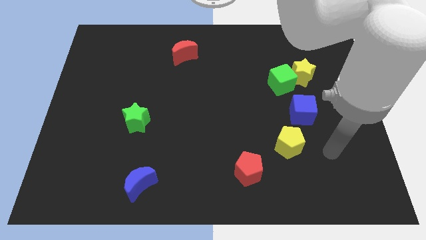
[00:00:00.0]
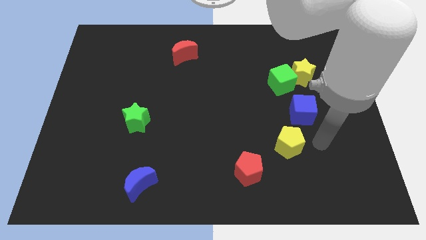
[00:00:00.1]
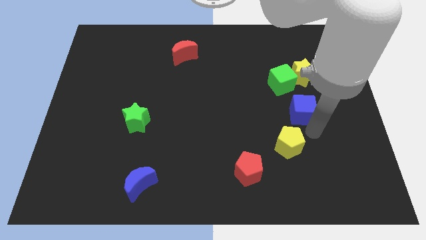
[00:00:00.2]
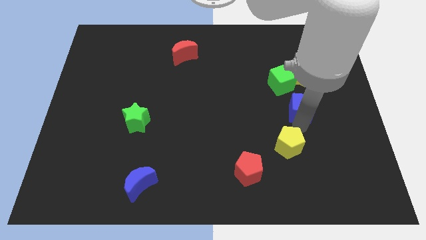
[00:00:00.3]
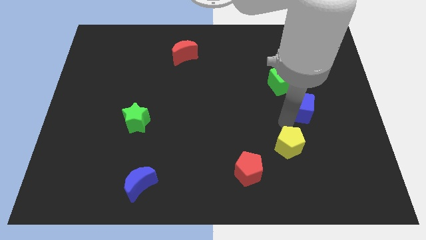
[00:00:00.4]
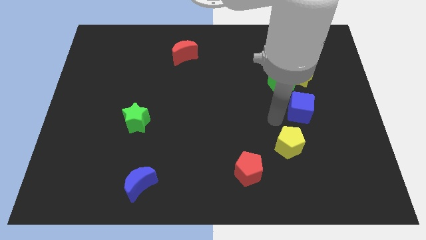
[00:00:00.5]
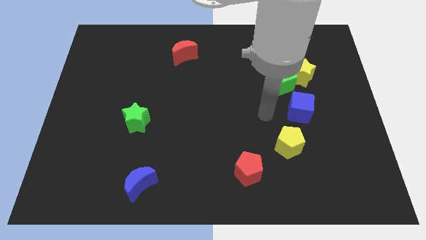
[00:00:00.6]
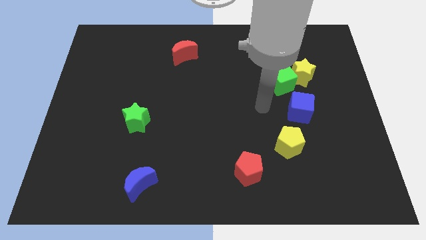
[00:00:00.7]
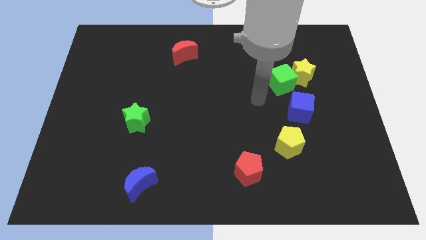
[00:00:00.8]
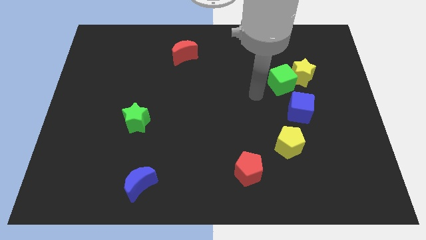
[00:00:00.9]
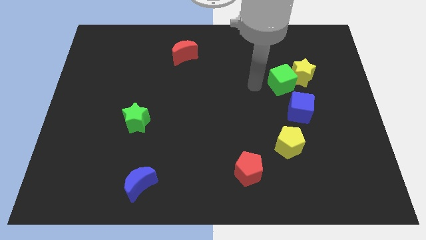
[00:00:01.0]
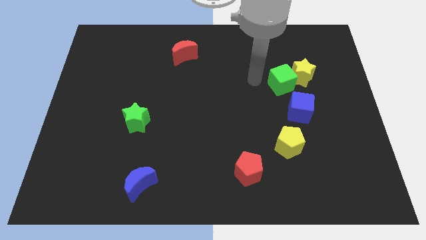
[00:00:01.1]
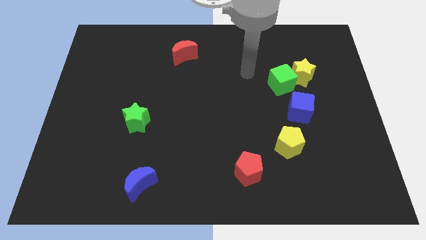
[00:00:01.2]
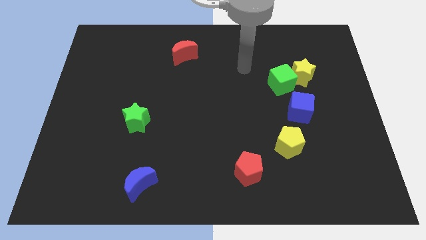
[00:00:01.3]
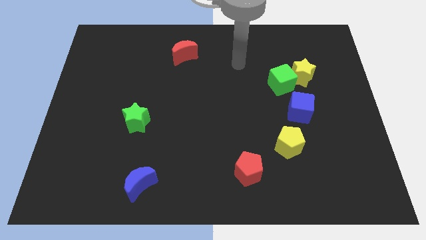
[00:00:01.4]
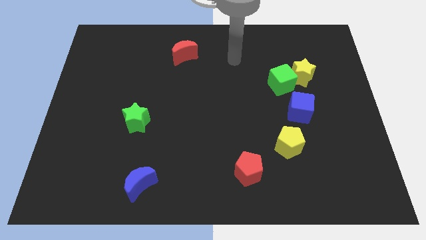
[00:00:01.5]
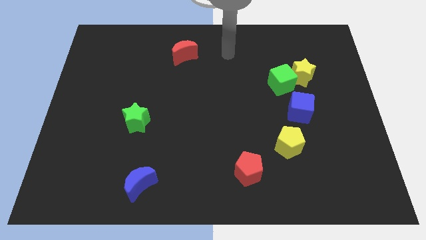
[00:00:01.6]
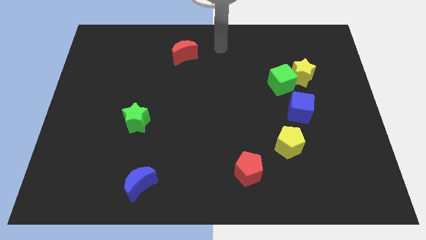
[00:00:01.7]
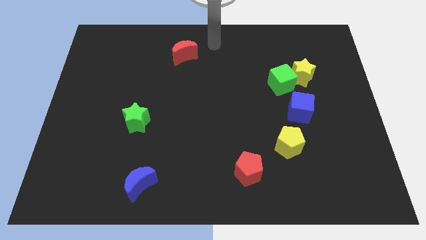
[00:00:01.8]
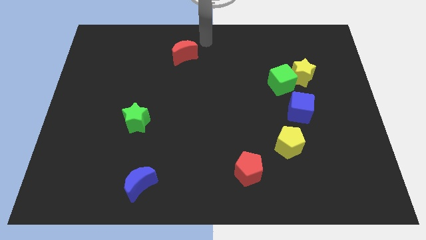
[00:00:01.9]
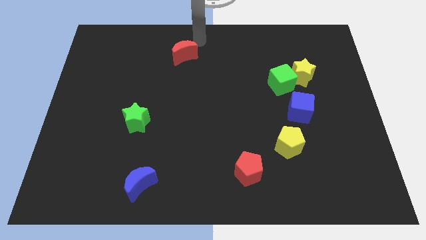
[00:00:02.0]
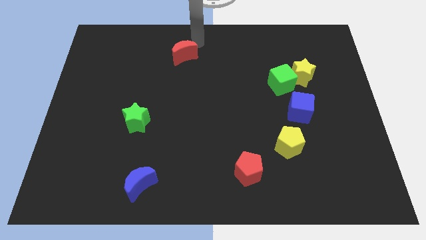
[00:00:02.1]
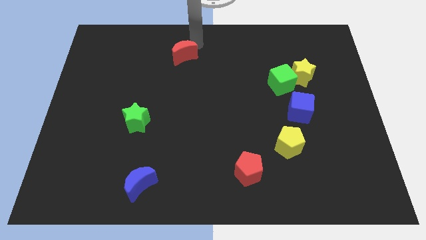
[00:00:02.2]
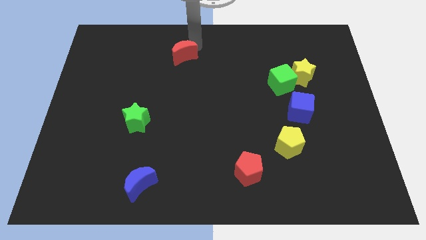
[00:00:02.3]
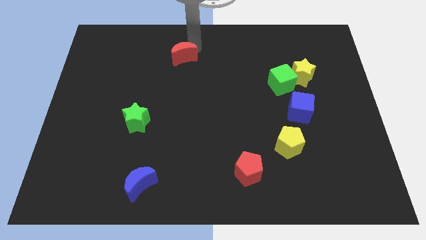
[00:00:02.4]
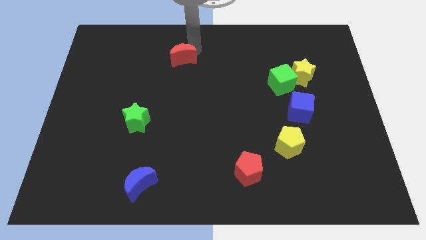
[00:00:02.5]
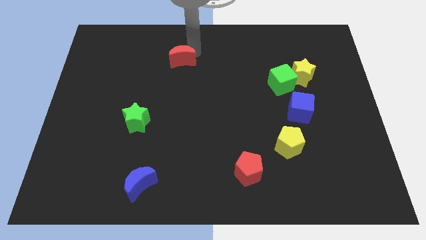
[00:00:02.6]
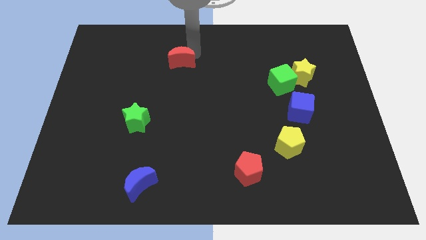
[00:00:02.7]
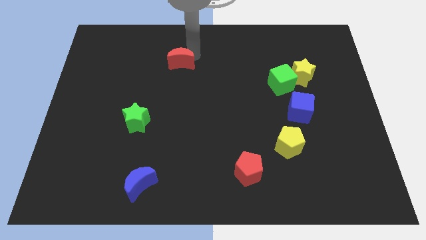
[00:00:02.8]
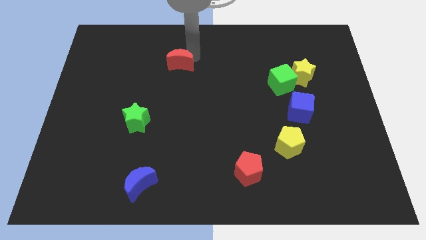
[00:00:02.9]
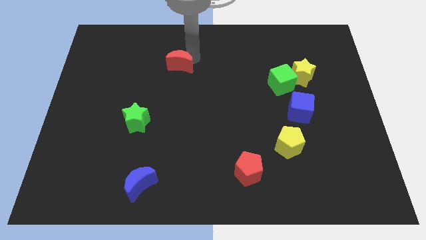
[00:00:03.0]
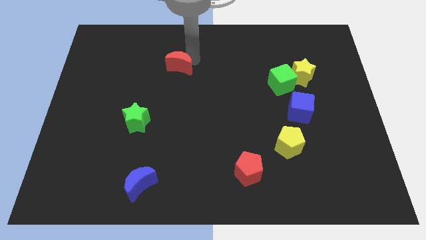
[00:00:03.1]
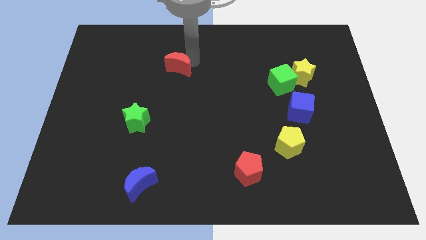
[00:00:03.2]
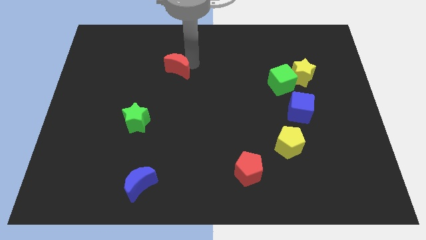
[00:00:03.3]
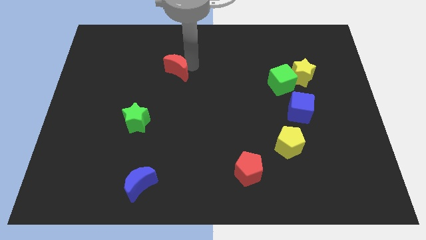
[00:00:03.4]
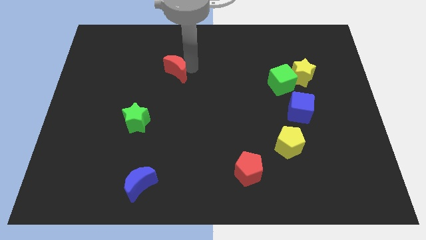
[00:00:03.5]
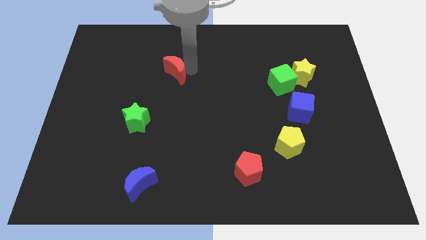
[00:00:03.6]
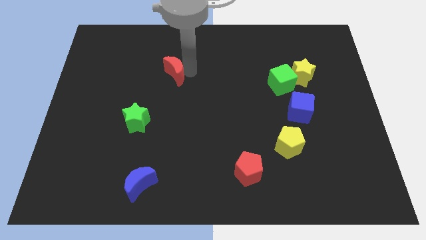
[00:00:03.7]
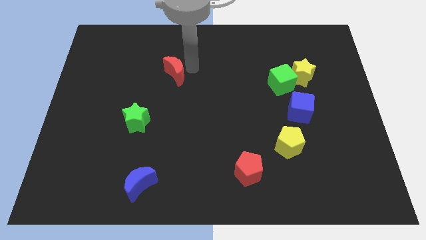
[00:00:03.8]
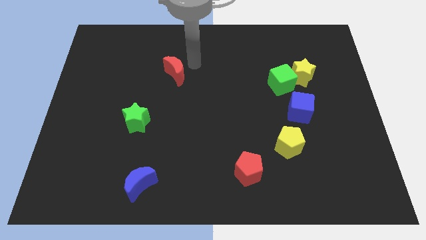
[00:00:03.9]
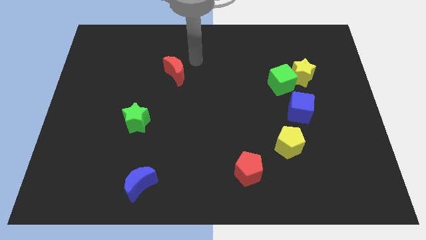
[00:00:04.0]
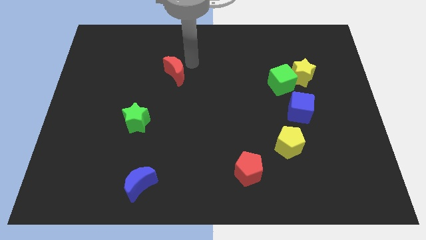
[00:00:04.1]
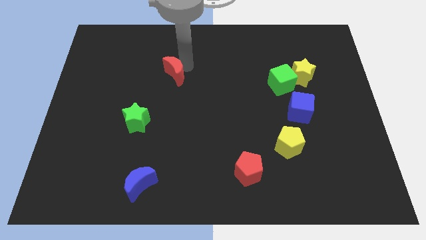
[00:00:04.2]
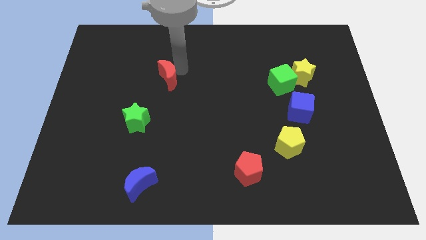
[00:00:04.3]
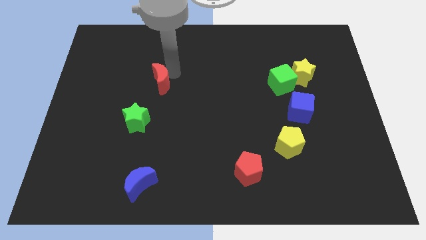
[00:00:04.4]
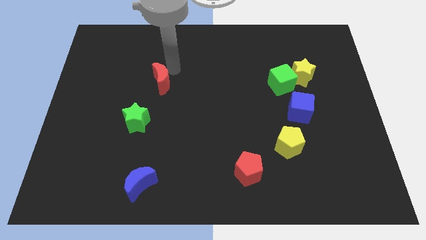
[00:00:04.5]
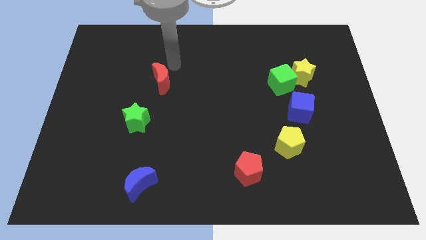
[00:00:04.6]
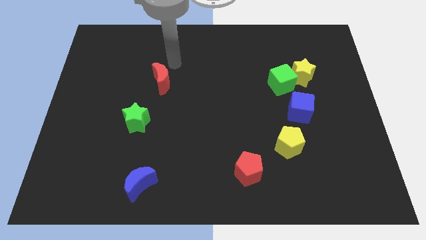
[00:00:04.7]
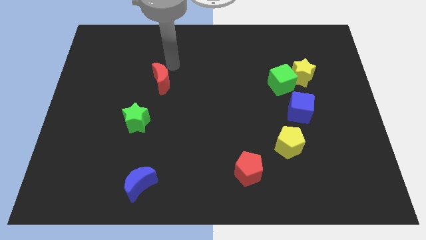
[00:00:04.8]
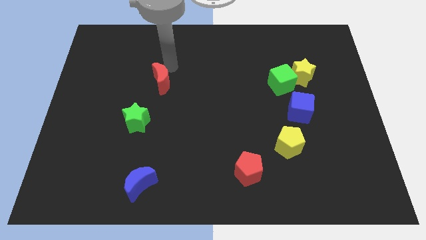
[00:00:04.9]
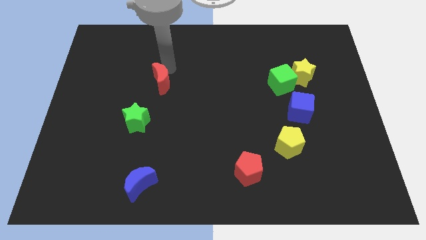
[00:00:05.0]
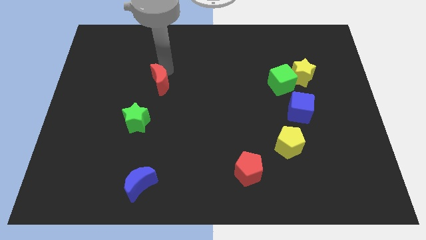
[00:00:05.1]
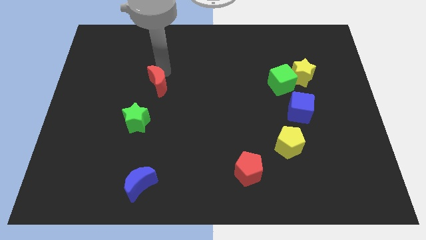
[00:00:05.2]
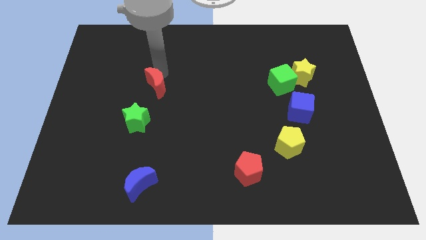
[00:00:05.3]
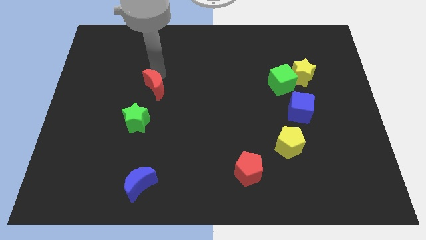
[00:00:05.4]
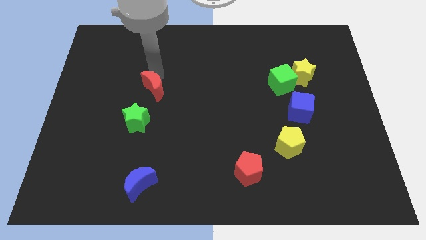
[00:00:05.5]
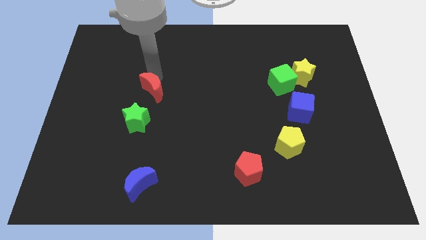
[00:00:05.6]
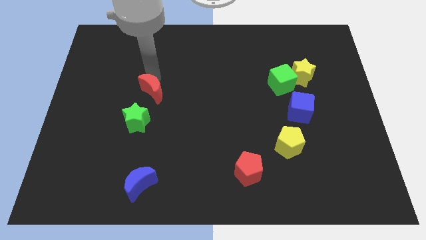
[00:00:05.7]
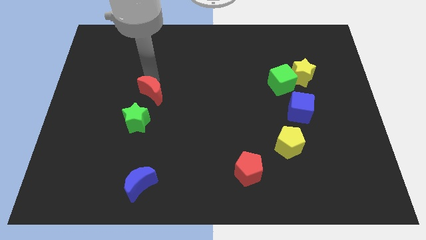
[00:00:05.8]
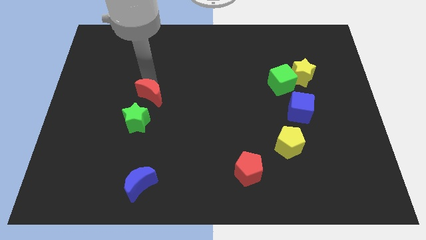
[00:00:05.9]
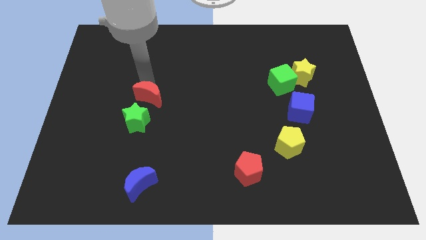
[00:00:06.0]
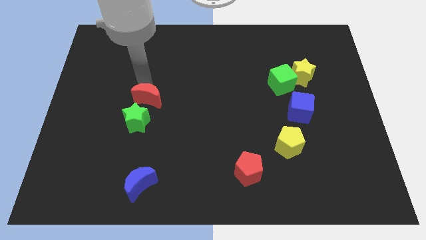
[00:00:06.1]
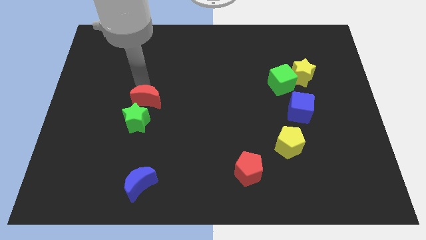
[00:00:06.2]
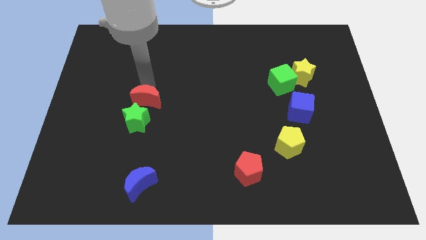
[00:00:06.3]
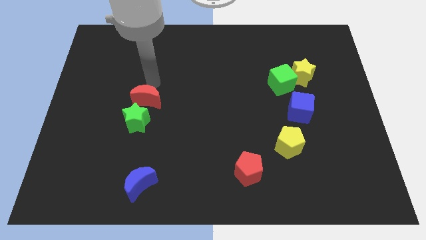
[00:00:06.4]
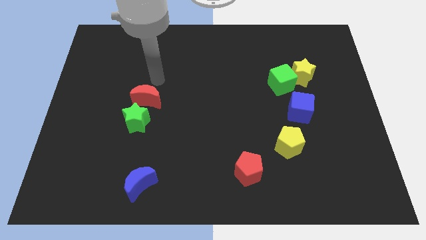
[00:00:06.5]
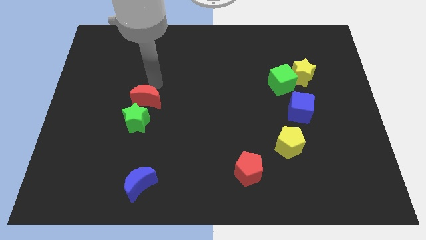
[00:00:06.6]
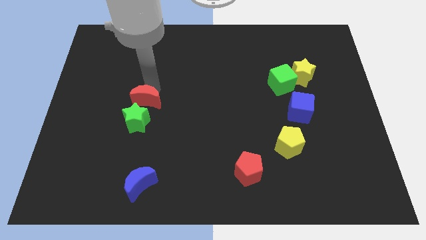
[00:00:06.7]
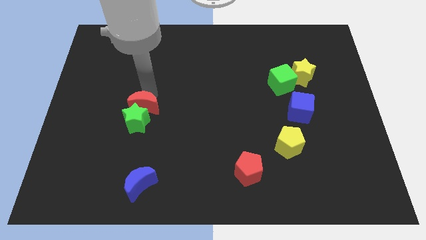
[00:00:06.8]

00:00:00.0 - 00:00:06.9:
push the red moon towards the green star
